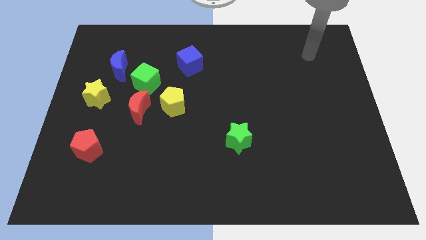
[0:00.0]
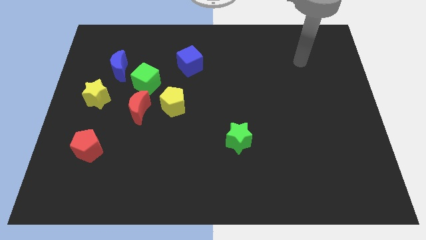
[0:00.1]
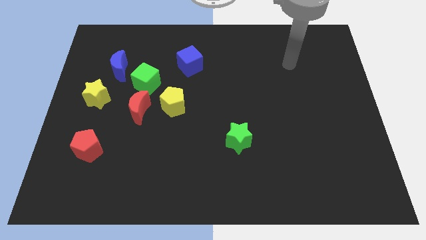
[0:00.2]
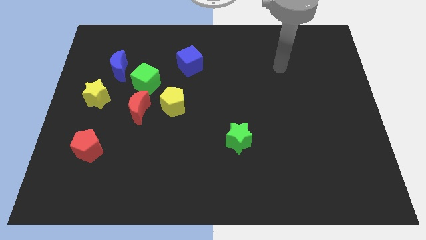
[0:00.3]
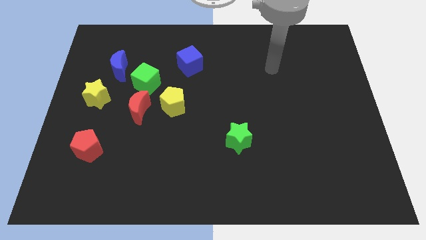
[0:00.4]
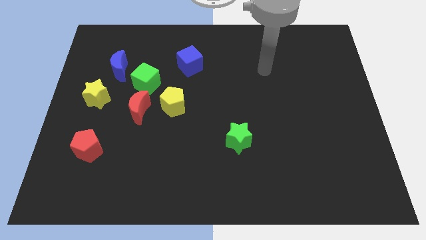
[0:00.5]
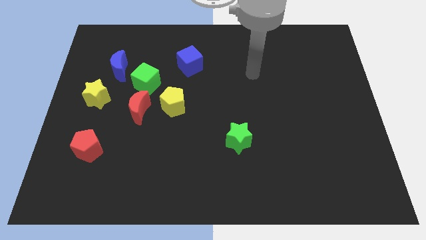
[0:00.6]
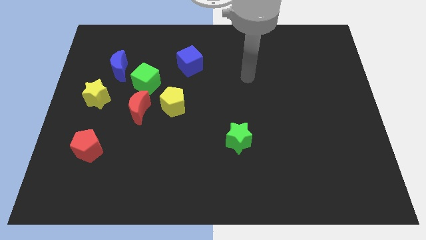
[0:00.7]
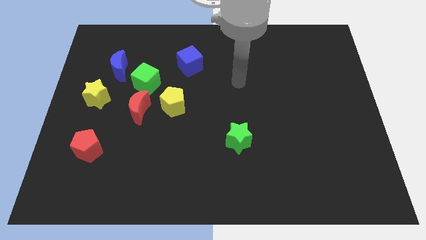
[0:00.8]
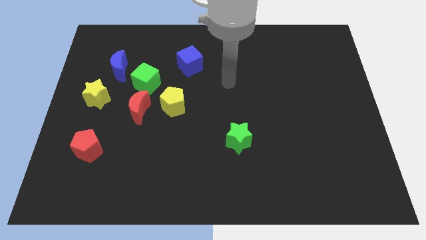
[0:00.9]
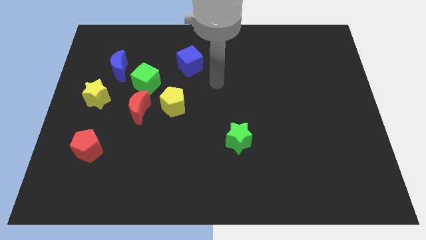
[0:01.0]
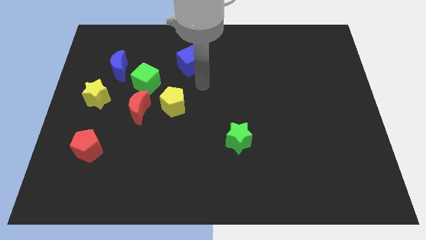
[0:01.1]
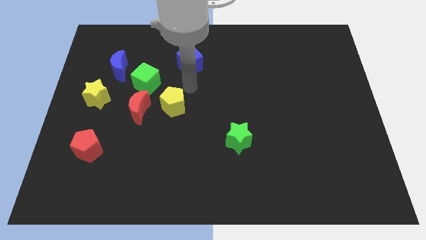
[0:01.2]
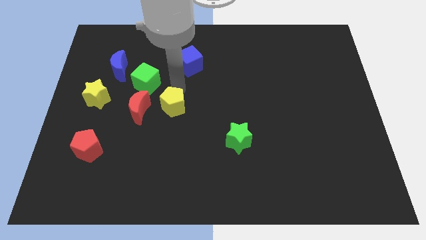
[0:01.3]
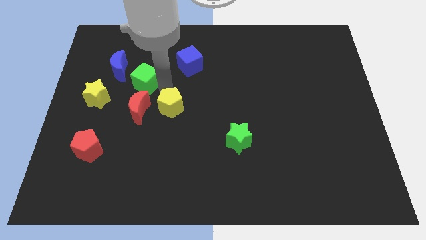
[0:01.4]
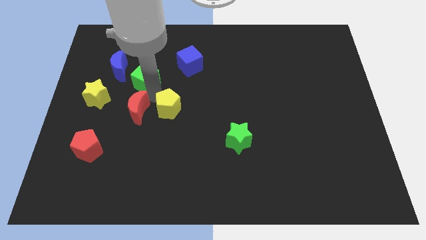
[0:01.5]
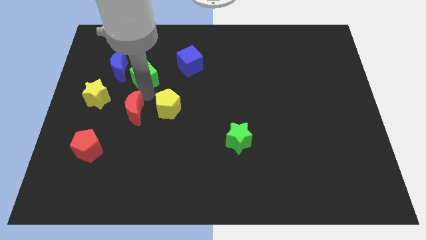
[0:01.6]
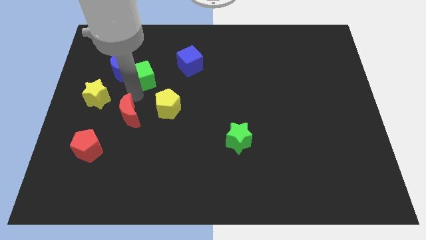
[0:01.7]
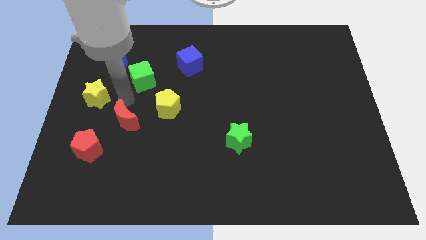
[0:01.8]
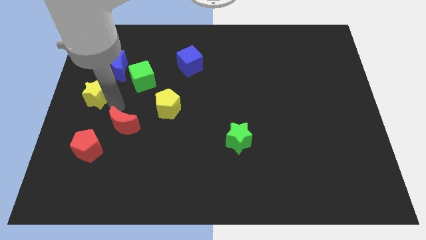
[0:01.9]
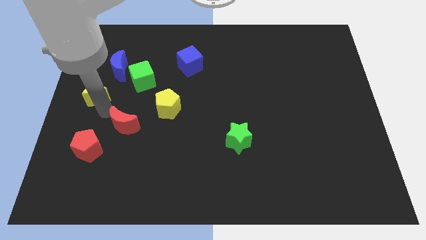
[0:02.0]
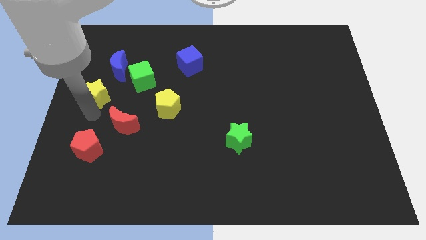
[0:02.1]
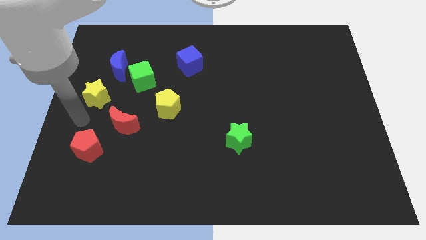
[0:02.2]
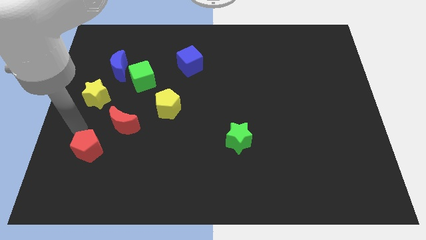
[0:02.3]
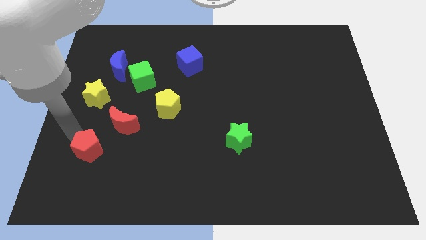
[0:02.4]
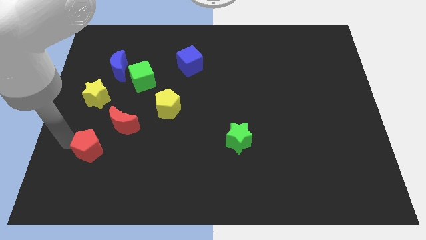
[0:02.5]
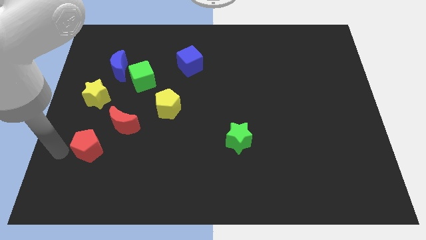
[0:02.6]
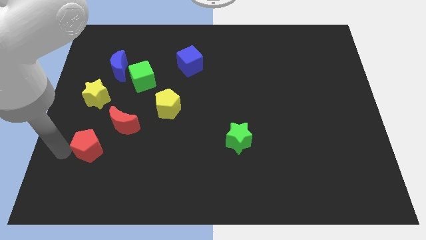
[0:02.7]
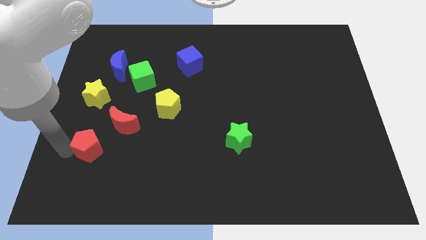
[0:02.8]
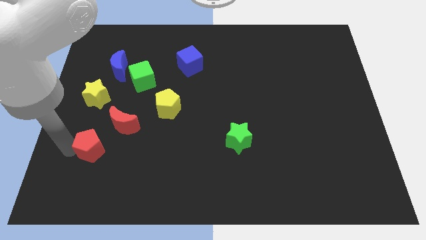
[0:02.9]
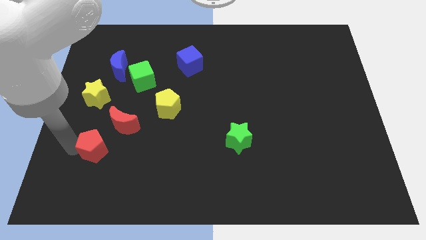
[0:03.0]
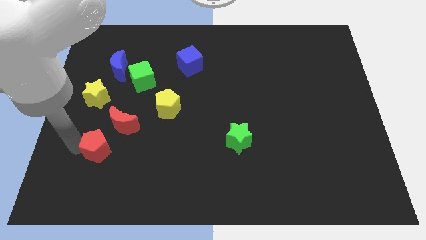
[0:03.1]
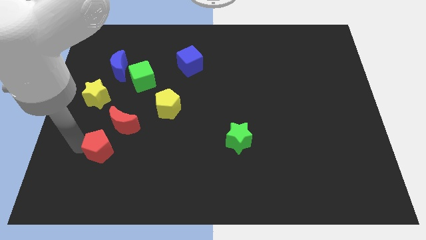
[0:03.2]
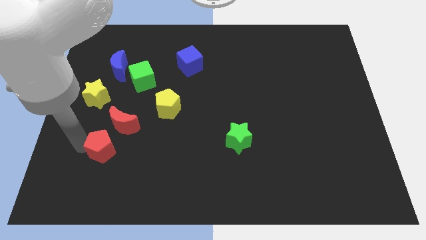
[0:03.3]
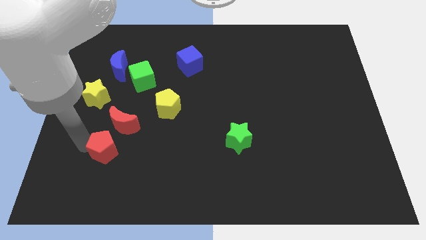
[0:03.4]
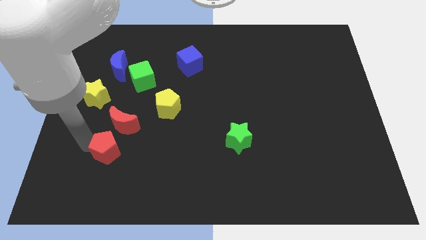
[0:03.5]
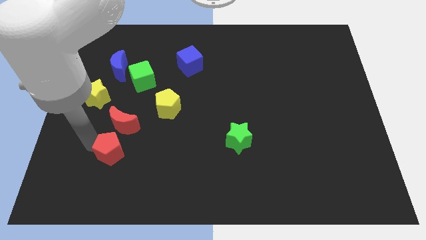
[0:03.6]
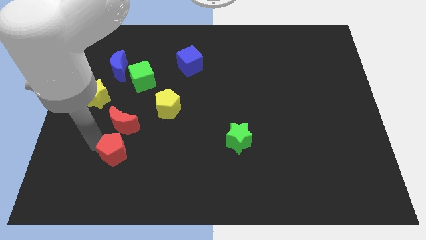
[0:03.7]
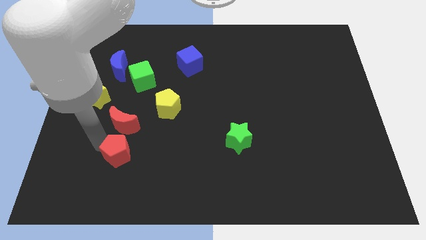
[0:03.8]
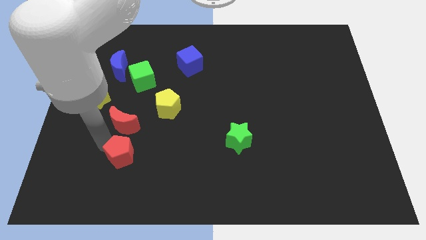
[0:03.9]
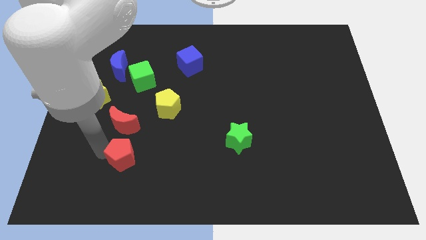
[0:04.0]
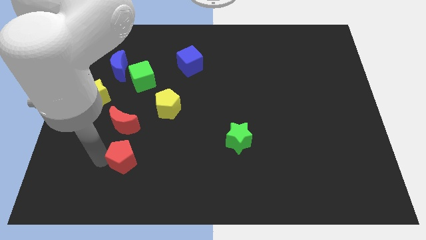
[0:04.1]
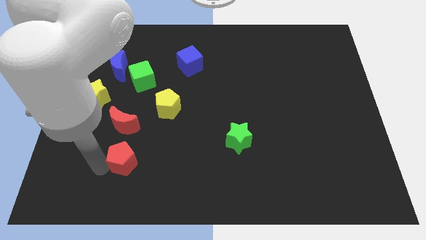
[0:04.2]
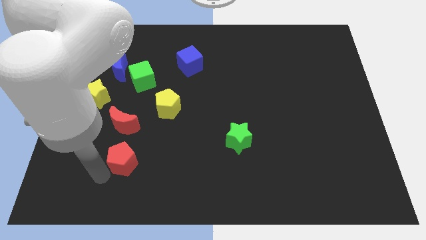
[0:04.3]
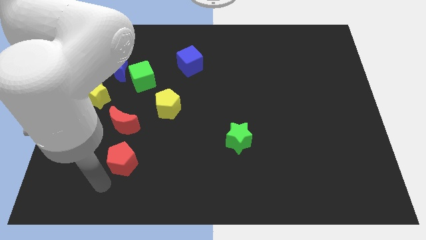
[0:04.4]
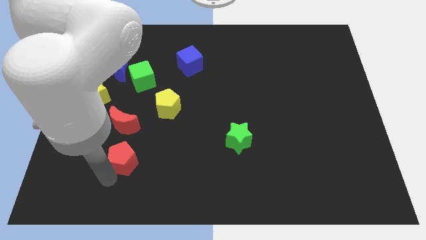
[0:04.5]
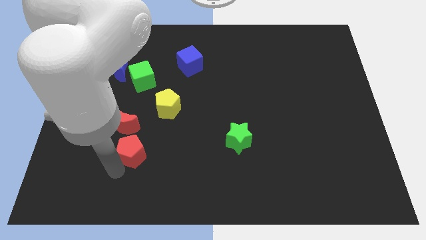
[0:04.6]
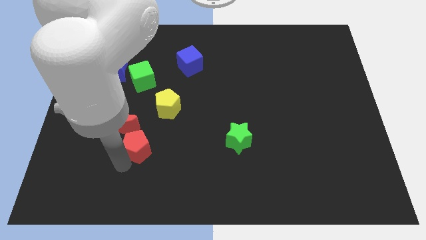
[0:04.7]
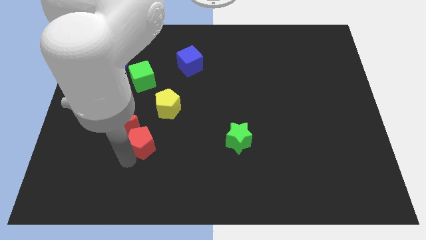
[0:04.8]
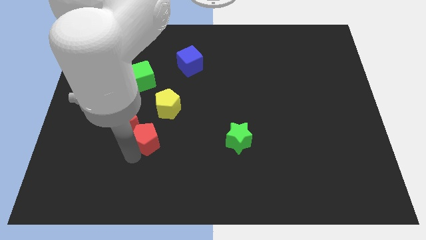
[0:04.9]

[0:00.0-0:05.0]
push the red pentagon diagonally upwards and to the right a bit

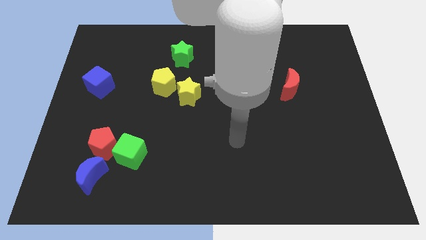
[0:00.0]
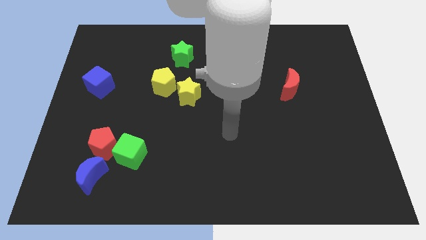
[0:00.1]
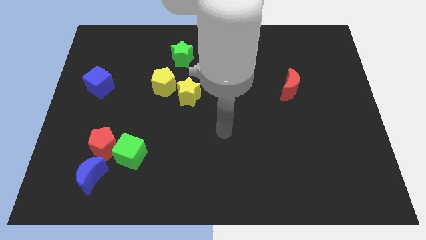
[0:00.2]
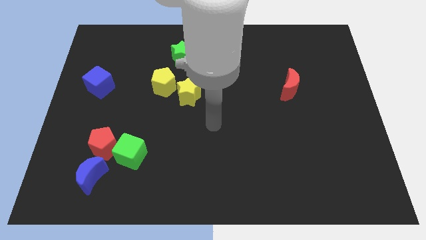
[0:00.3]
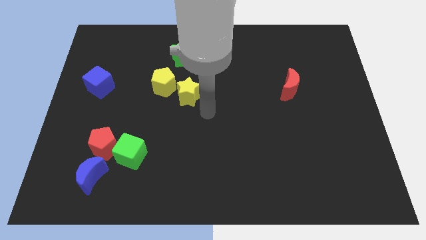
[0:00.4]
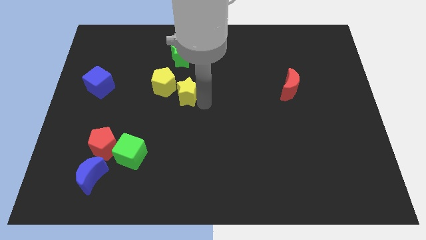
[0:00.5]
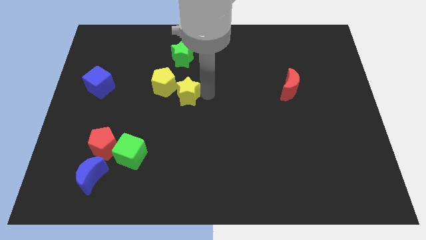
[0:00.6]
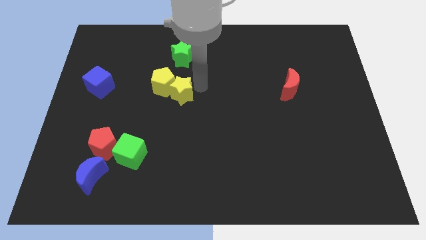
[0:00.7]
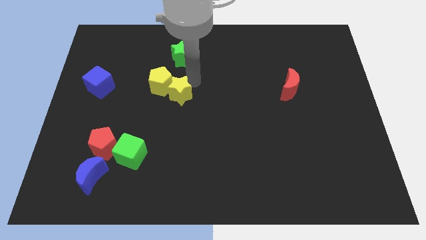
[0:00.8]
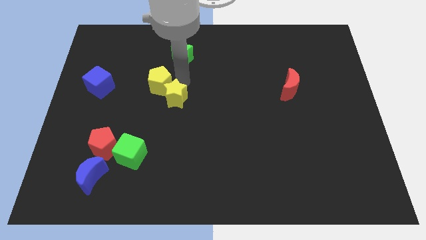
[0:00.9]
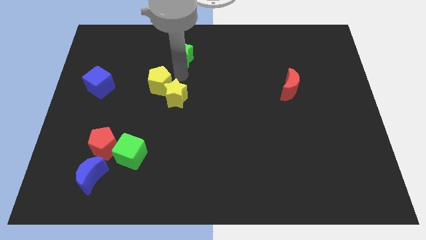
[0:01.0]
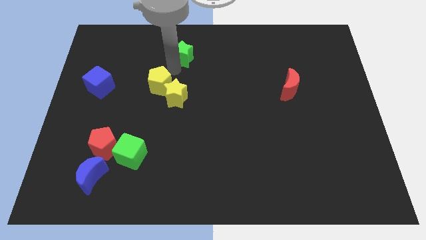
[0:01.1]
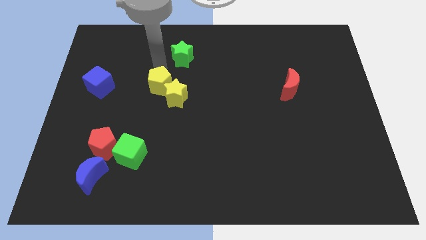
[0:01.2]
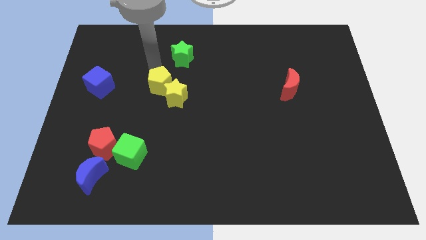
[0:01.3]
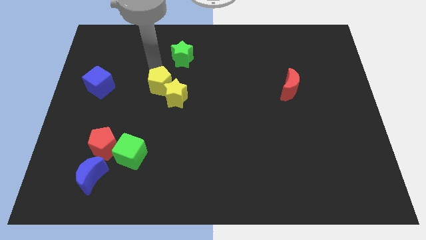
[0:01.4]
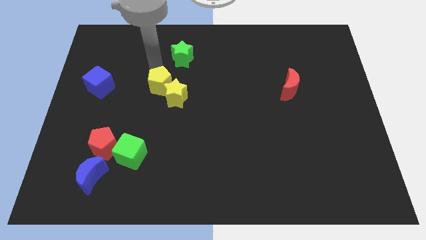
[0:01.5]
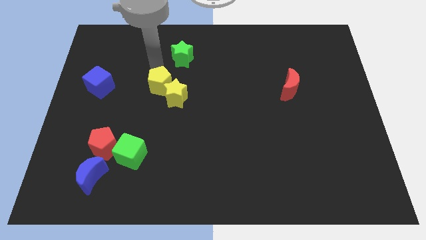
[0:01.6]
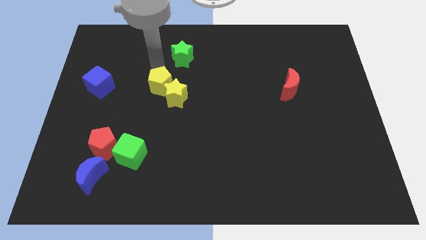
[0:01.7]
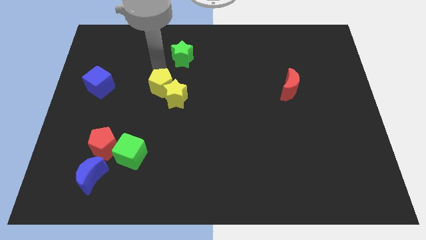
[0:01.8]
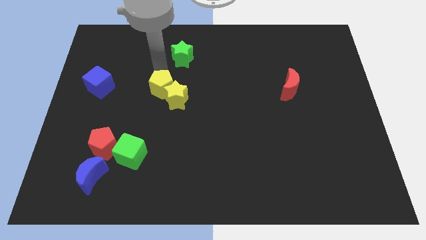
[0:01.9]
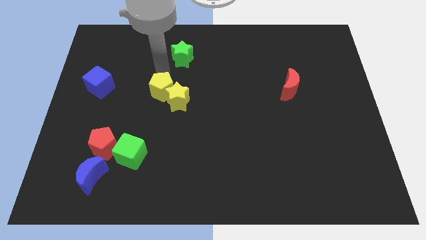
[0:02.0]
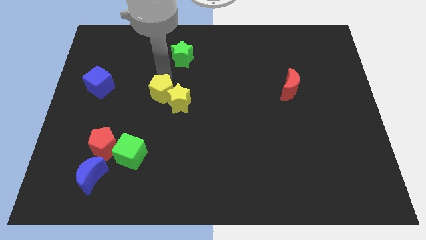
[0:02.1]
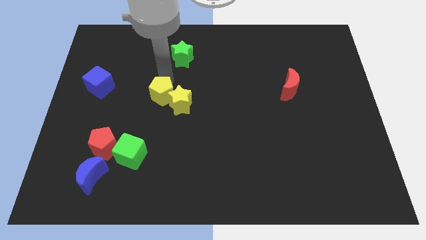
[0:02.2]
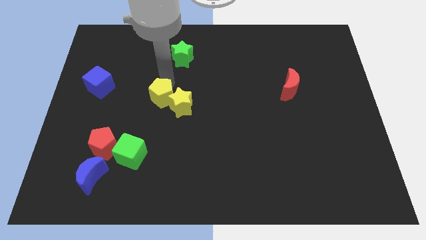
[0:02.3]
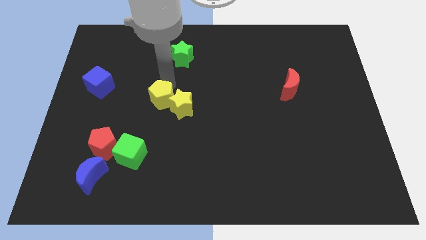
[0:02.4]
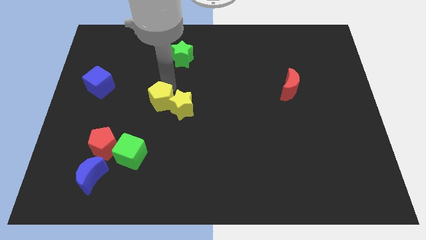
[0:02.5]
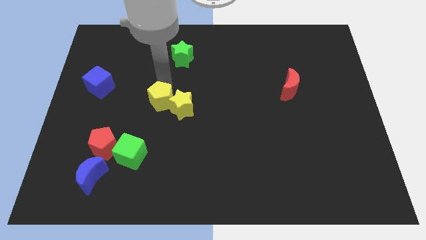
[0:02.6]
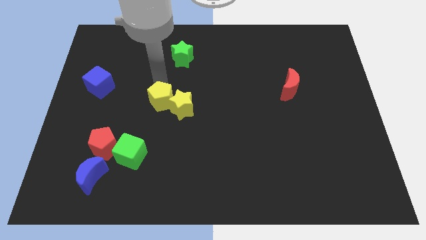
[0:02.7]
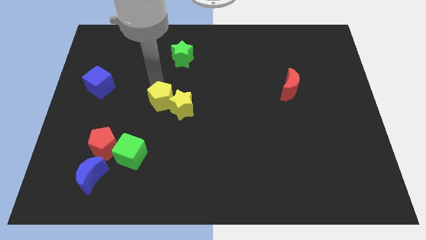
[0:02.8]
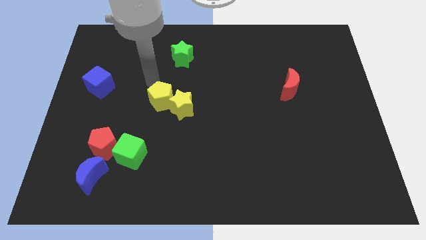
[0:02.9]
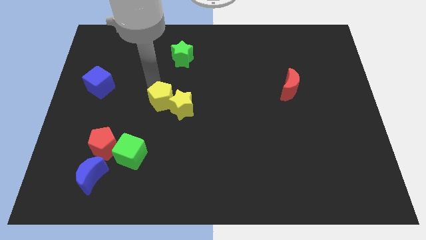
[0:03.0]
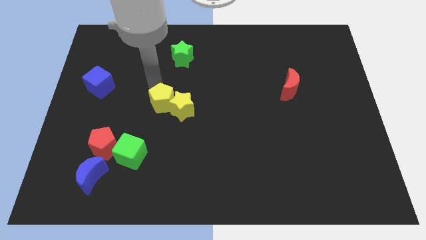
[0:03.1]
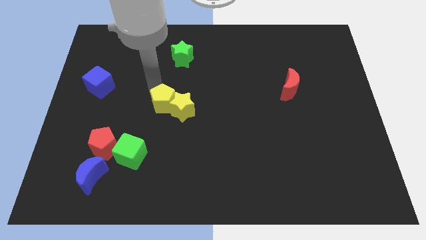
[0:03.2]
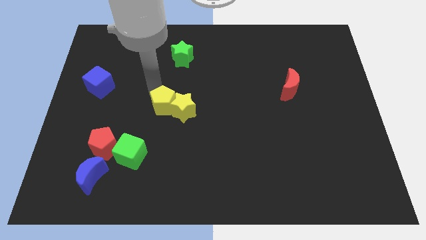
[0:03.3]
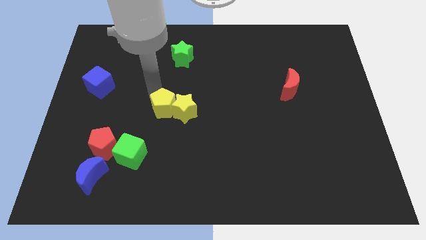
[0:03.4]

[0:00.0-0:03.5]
move the yellow pentagon downwards somewhat

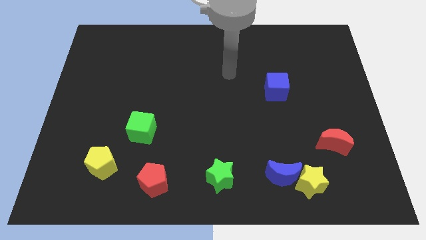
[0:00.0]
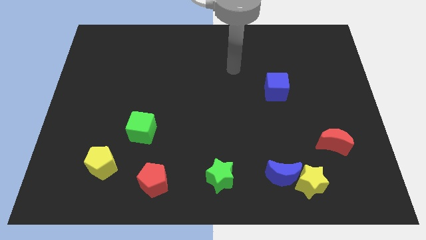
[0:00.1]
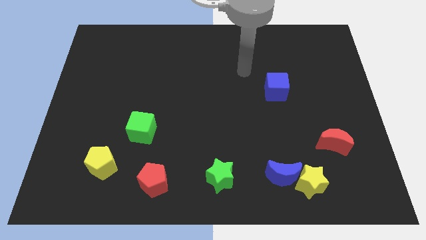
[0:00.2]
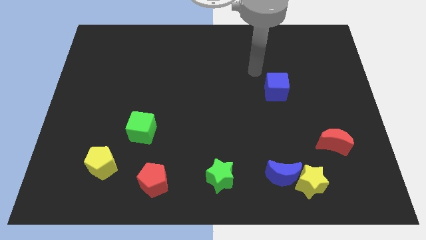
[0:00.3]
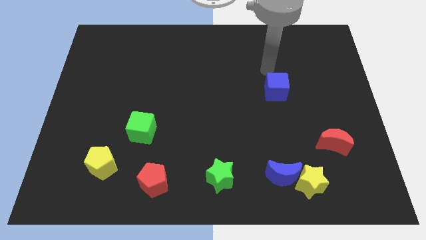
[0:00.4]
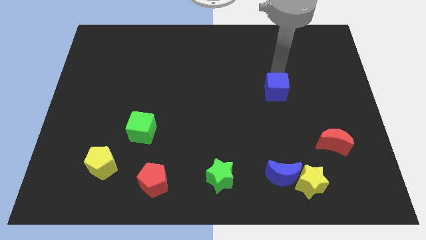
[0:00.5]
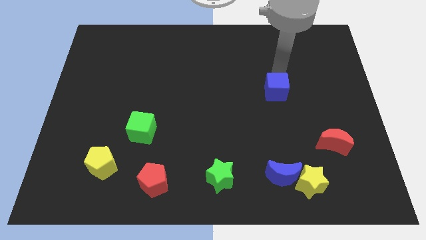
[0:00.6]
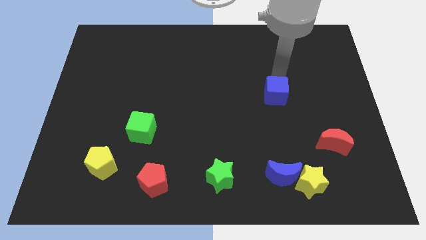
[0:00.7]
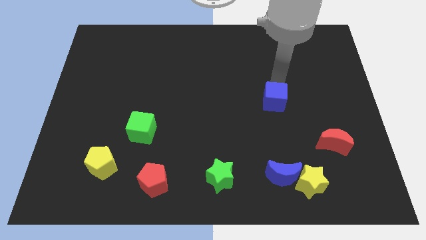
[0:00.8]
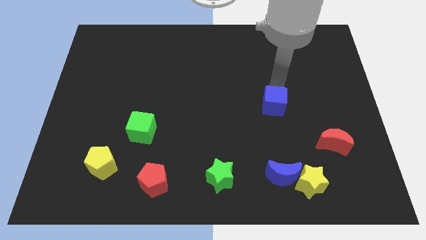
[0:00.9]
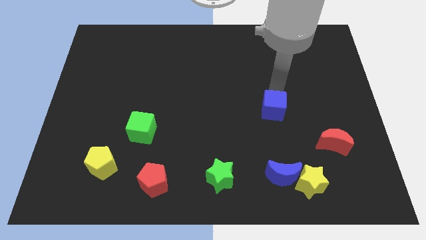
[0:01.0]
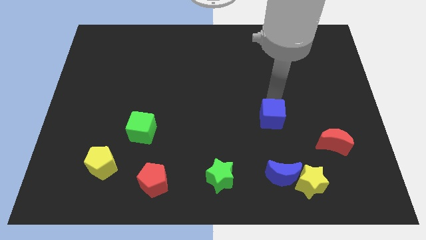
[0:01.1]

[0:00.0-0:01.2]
slightly push the blue cube down
